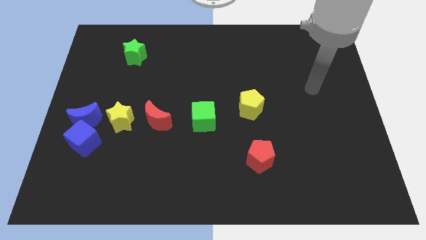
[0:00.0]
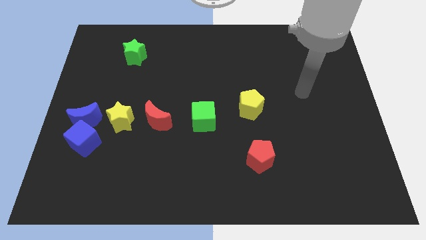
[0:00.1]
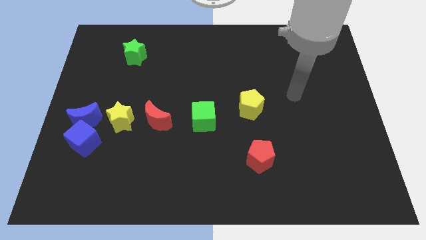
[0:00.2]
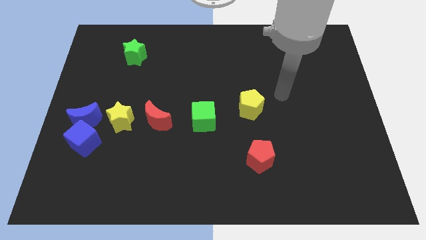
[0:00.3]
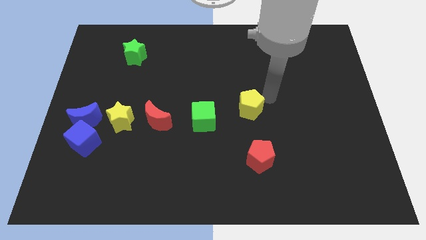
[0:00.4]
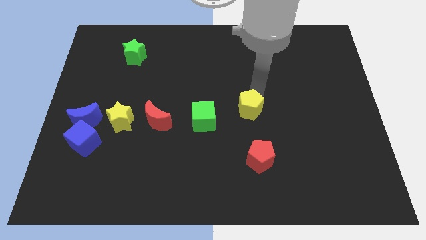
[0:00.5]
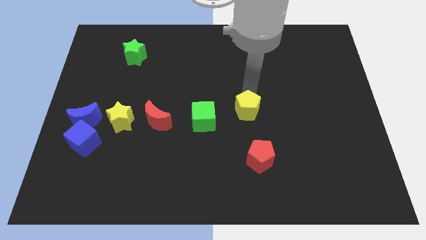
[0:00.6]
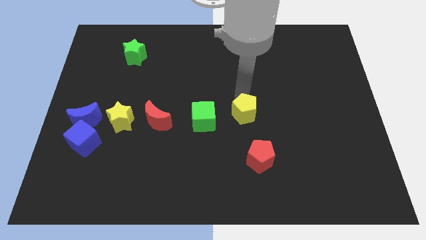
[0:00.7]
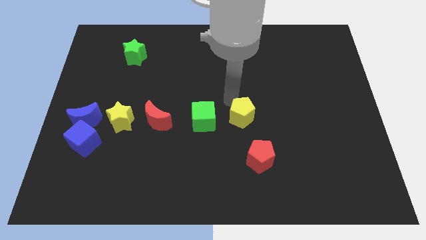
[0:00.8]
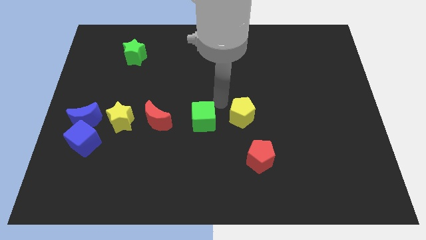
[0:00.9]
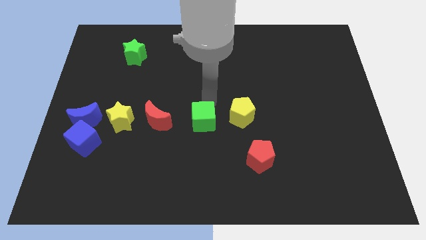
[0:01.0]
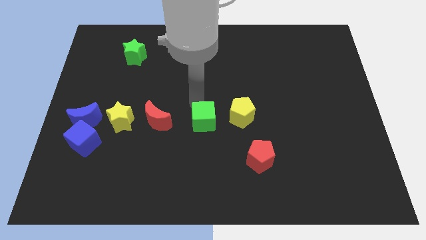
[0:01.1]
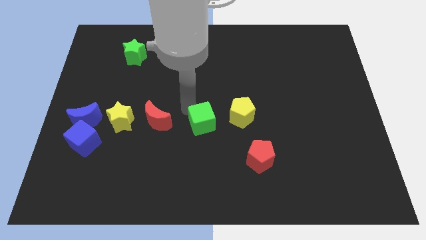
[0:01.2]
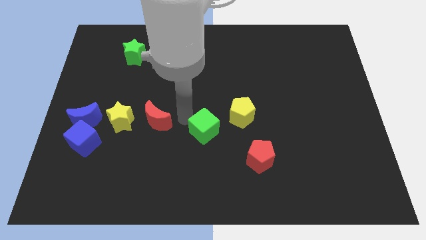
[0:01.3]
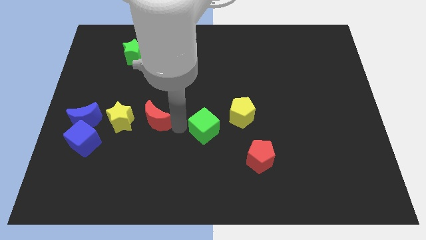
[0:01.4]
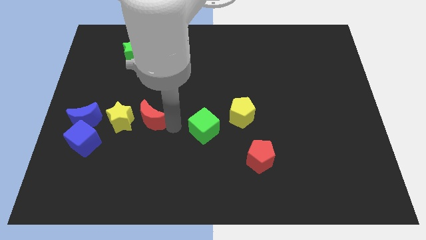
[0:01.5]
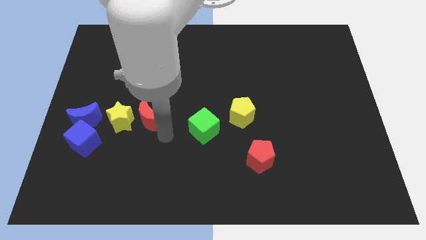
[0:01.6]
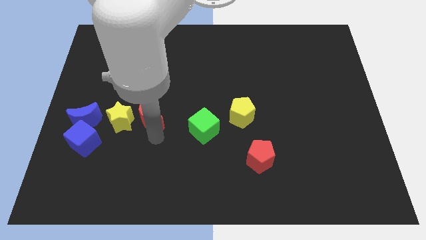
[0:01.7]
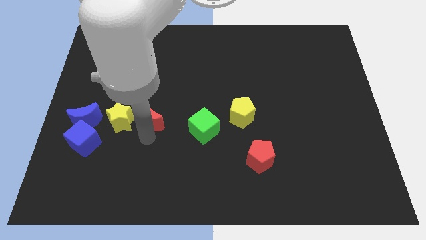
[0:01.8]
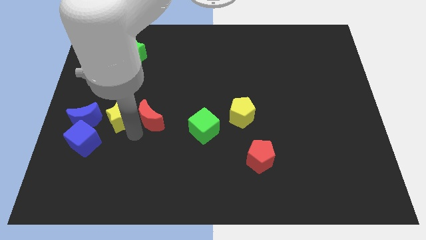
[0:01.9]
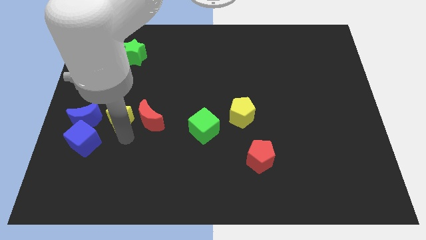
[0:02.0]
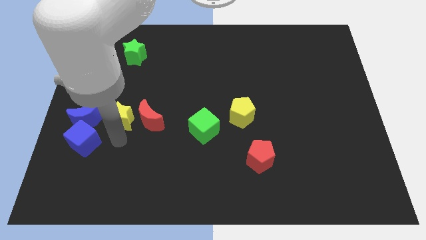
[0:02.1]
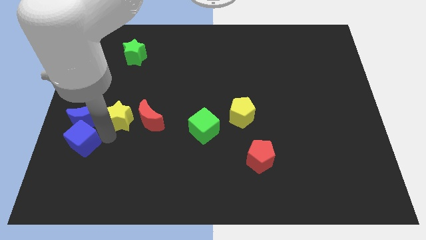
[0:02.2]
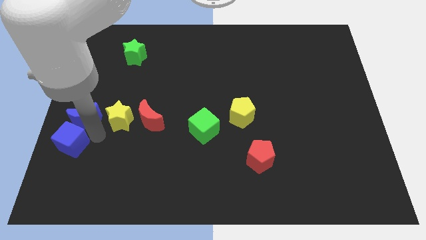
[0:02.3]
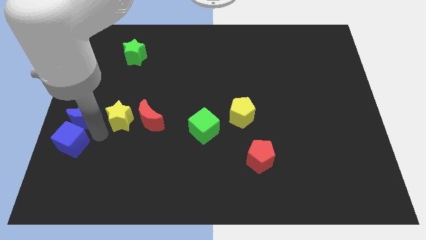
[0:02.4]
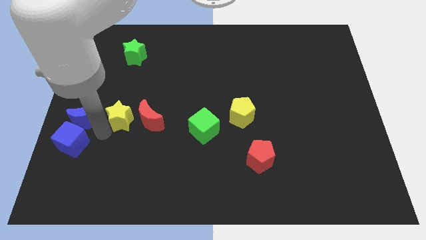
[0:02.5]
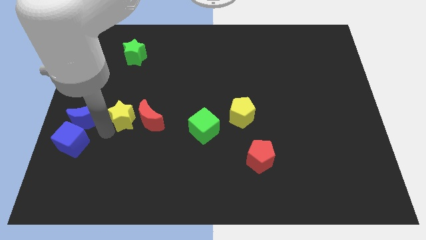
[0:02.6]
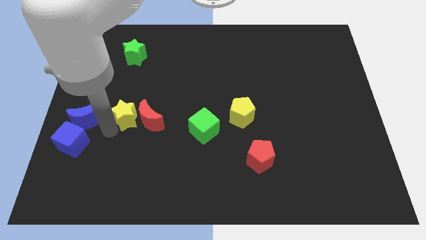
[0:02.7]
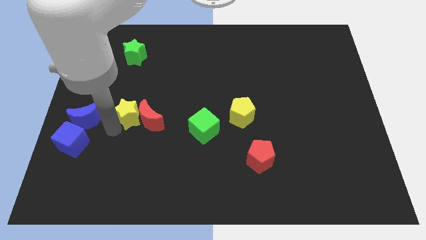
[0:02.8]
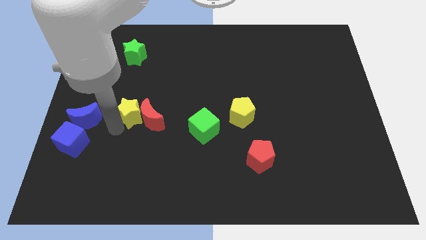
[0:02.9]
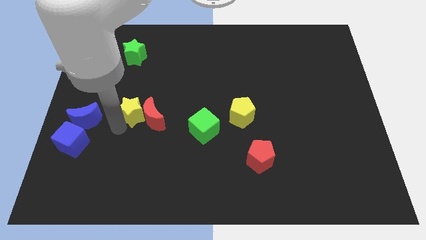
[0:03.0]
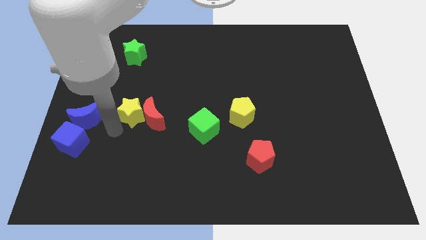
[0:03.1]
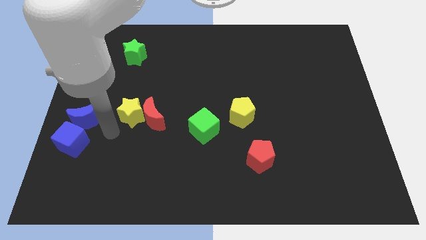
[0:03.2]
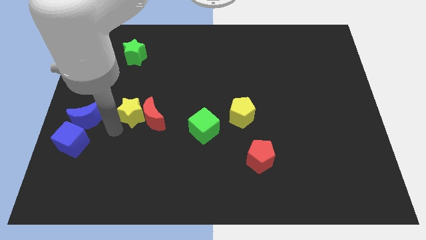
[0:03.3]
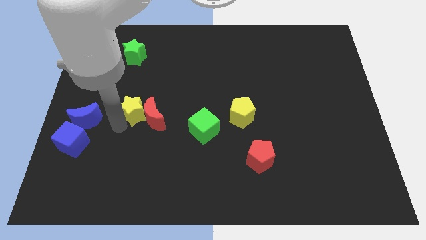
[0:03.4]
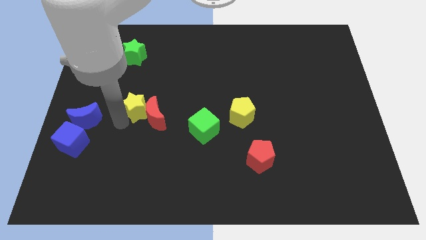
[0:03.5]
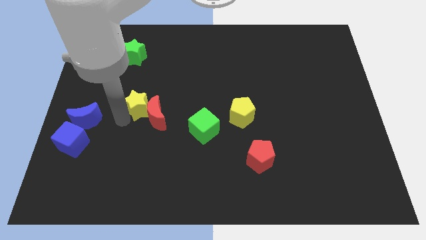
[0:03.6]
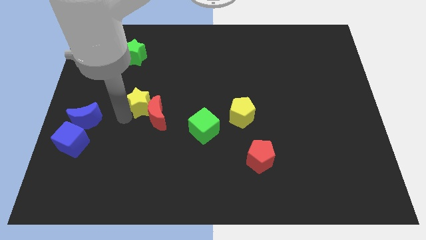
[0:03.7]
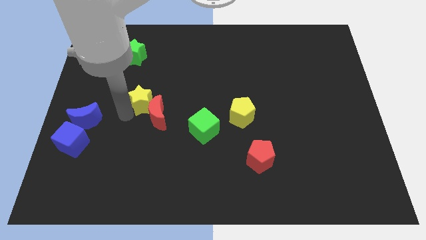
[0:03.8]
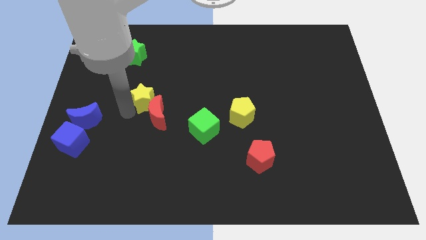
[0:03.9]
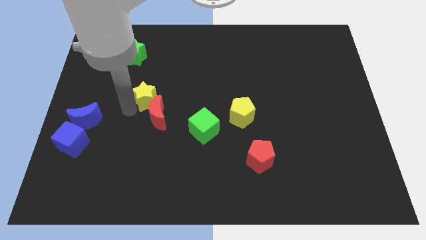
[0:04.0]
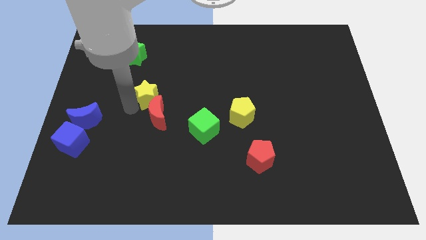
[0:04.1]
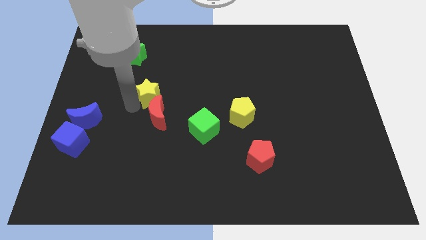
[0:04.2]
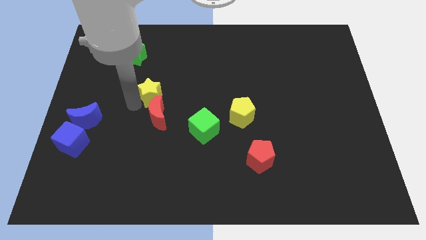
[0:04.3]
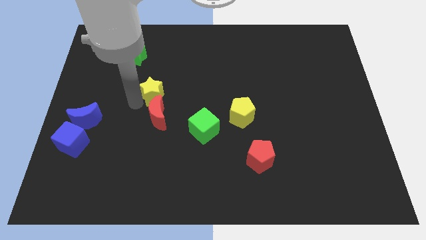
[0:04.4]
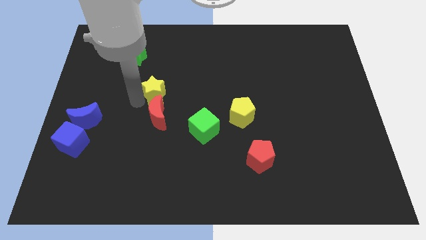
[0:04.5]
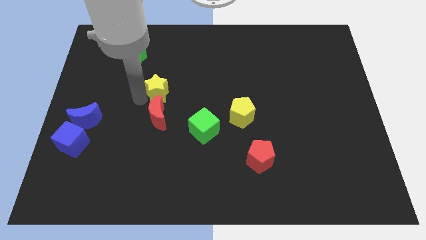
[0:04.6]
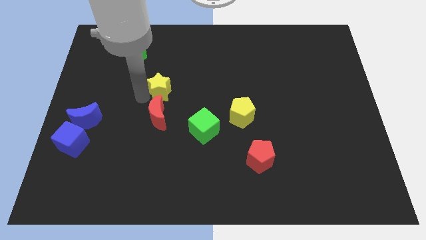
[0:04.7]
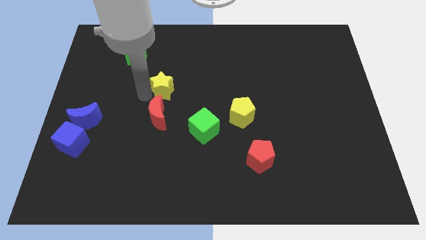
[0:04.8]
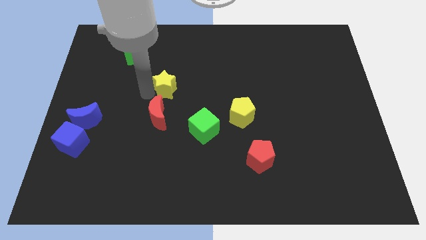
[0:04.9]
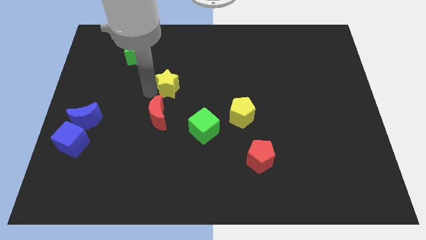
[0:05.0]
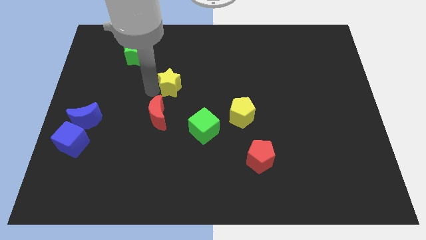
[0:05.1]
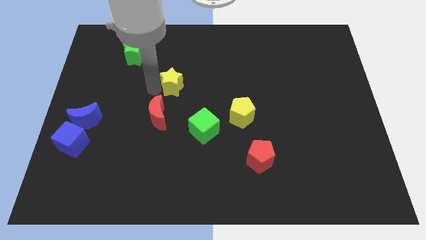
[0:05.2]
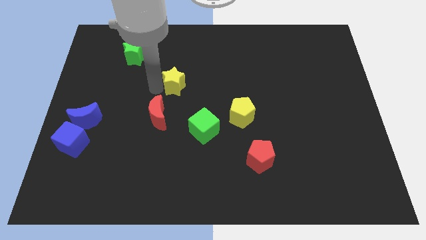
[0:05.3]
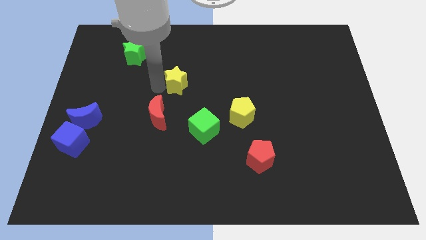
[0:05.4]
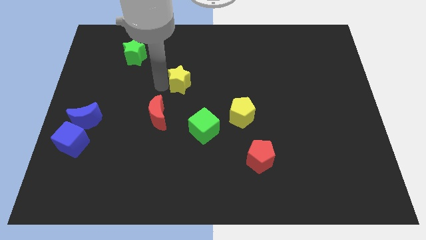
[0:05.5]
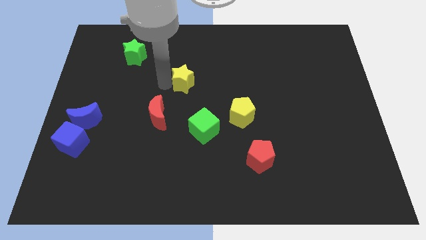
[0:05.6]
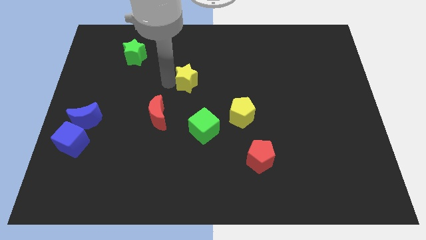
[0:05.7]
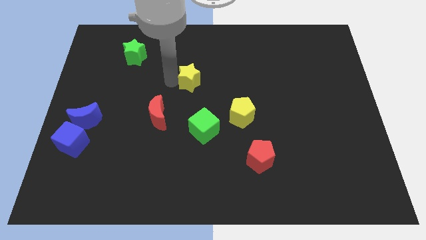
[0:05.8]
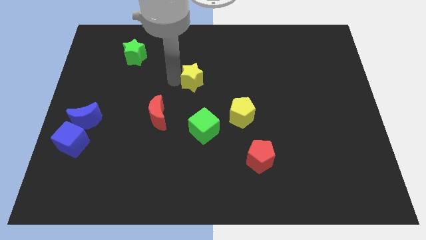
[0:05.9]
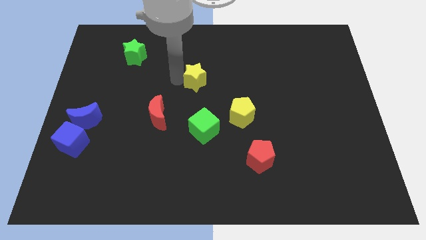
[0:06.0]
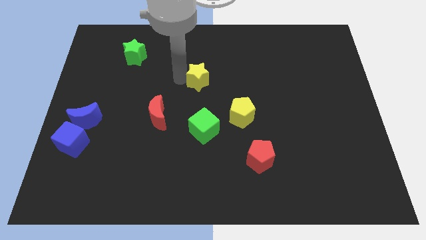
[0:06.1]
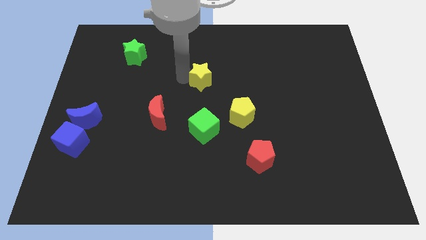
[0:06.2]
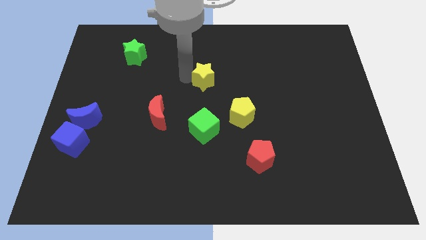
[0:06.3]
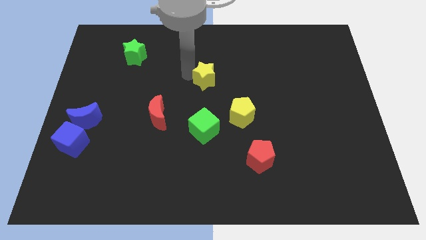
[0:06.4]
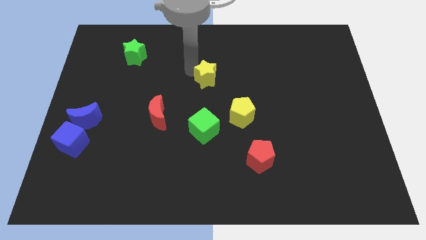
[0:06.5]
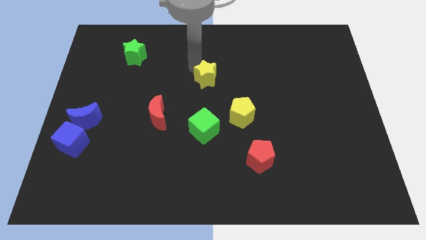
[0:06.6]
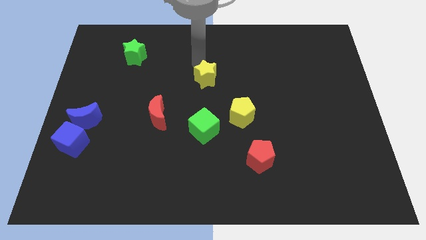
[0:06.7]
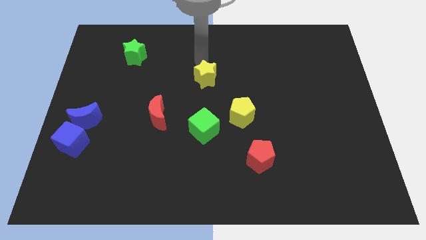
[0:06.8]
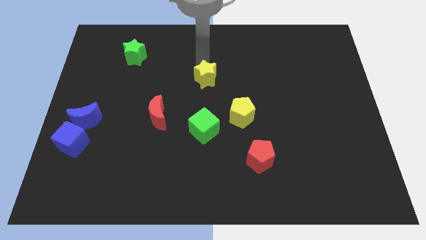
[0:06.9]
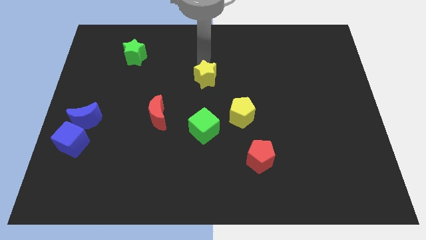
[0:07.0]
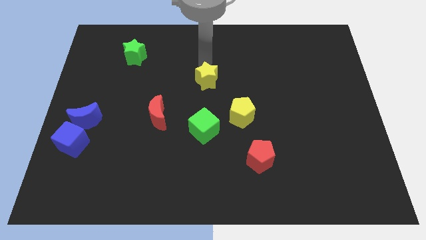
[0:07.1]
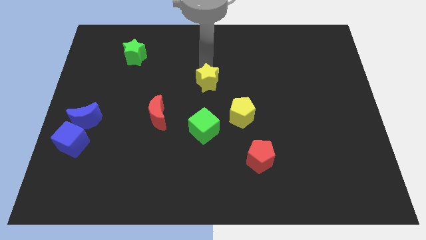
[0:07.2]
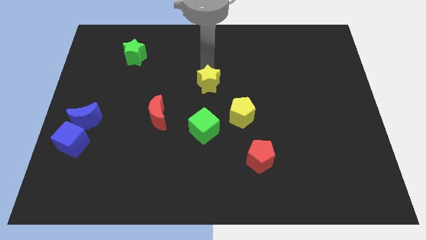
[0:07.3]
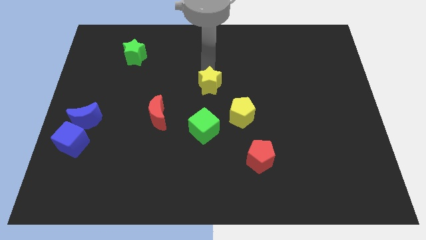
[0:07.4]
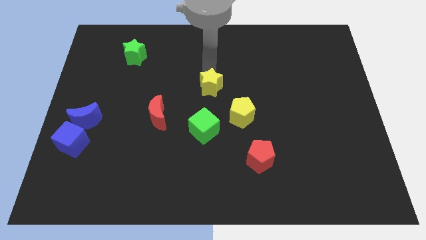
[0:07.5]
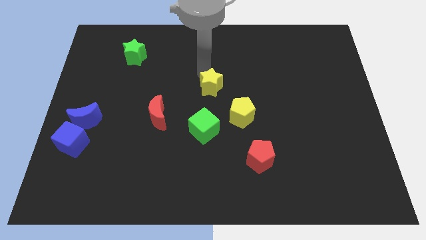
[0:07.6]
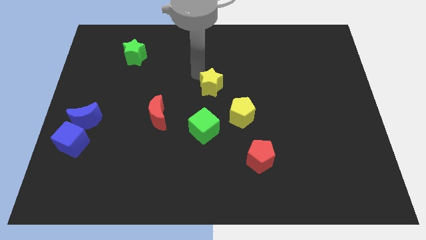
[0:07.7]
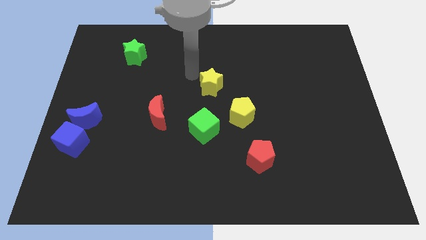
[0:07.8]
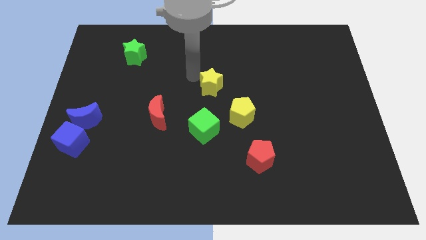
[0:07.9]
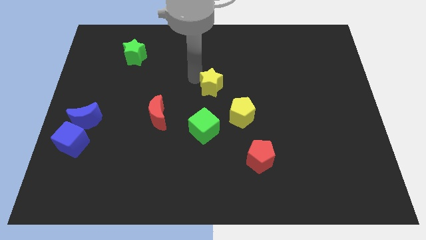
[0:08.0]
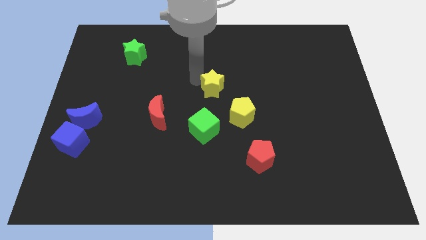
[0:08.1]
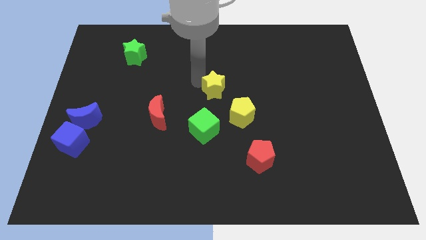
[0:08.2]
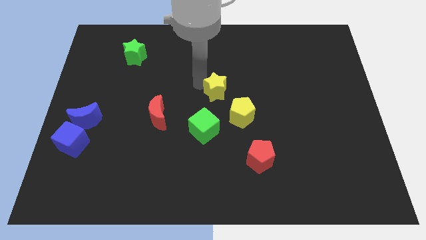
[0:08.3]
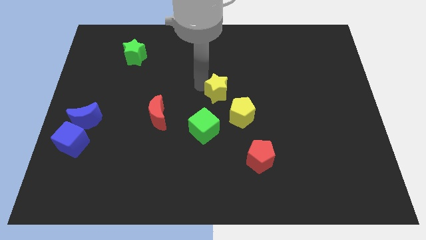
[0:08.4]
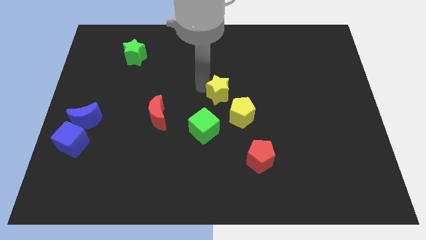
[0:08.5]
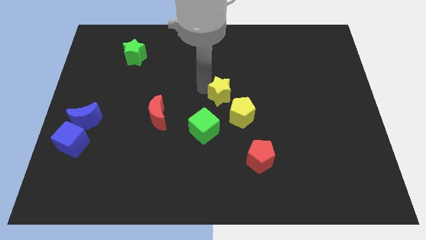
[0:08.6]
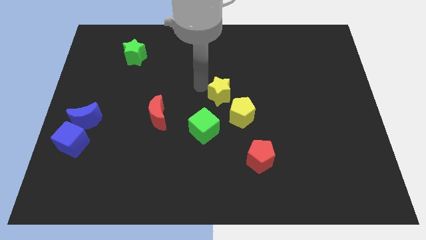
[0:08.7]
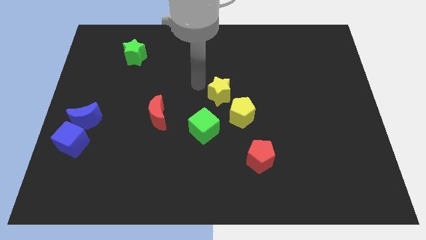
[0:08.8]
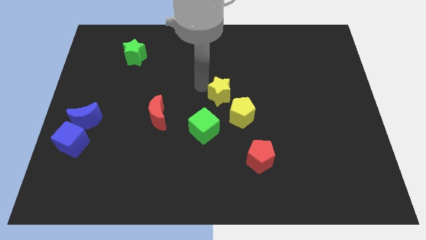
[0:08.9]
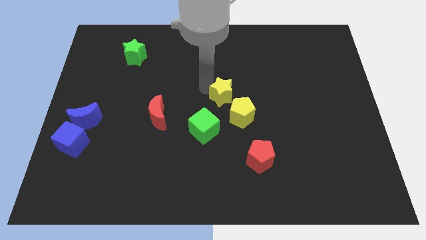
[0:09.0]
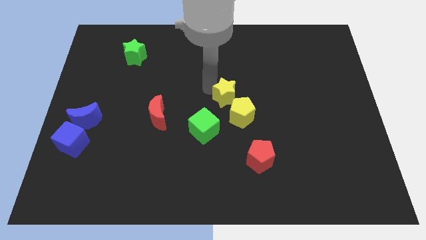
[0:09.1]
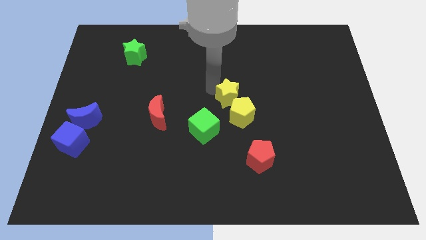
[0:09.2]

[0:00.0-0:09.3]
push the yellow star next to the yellow pentagon
